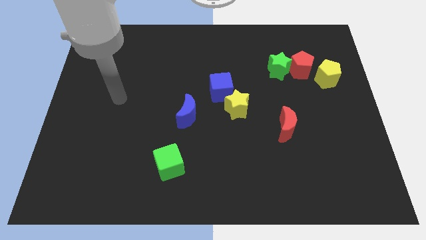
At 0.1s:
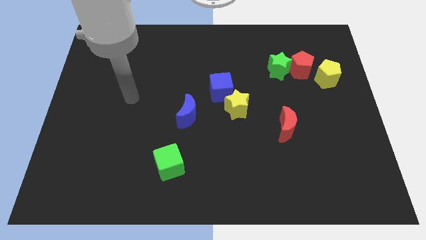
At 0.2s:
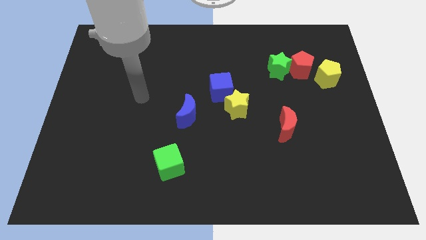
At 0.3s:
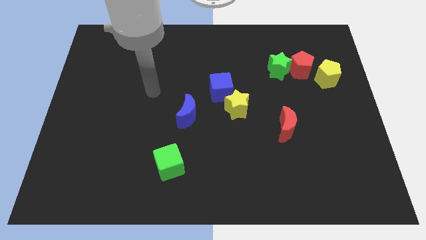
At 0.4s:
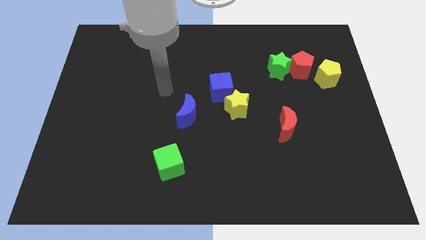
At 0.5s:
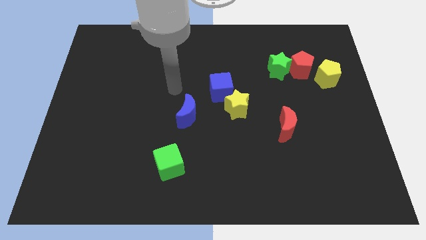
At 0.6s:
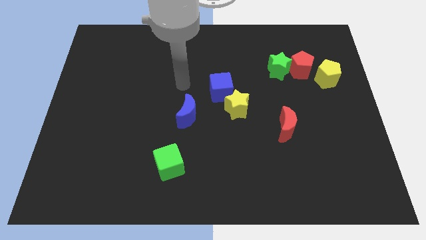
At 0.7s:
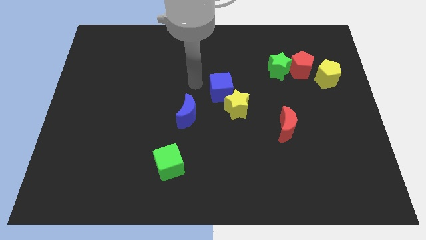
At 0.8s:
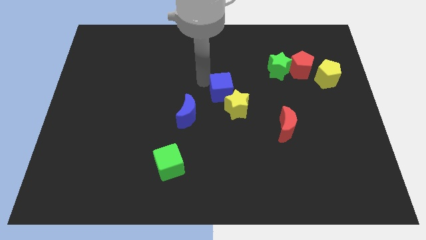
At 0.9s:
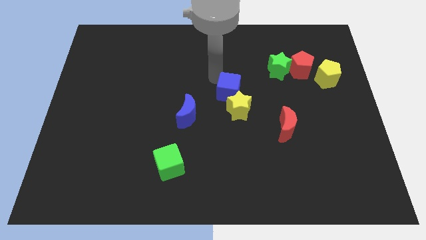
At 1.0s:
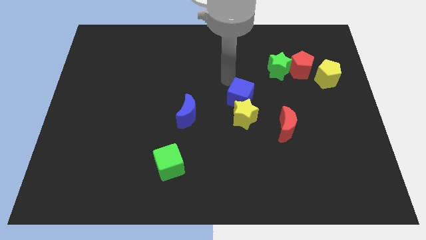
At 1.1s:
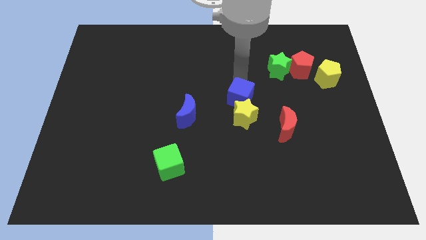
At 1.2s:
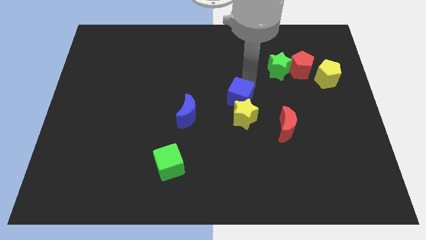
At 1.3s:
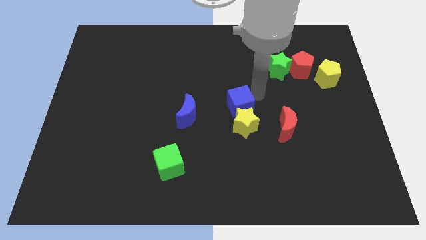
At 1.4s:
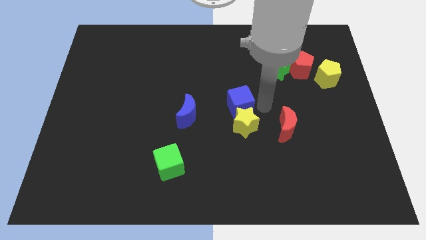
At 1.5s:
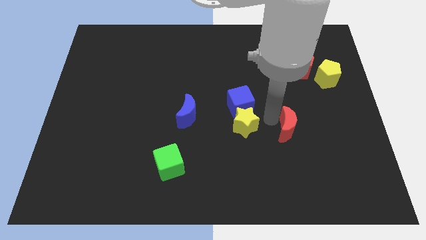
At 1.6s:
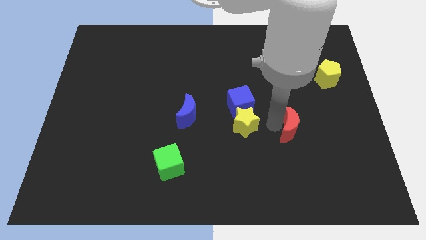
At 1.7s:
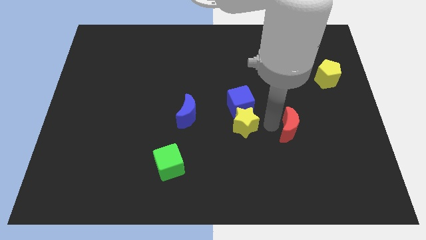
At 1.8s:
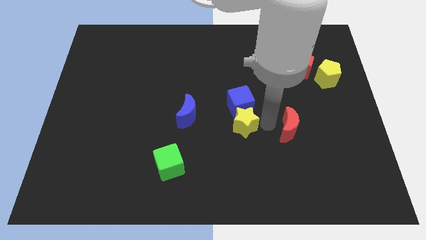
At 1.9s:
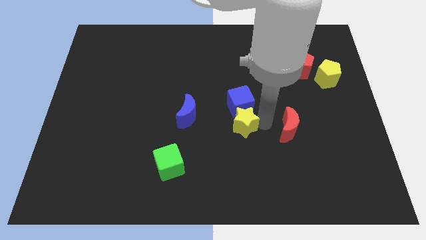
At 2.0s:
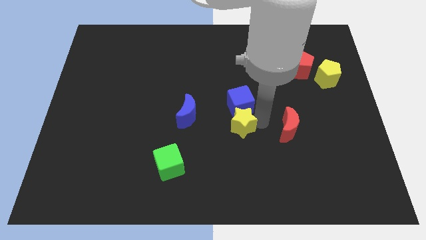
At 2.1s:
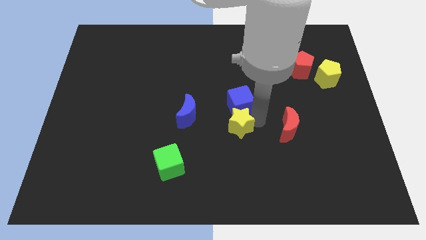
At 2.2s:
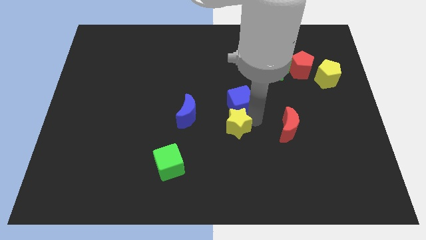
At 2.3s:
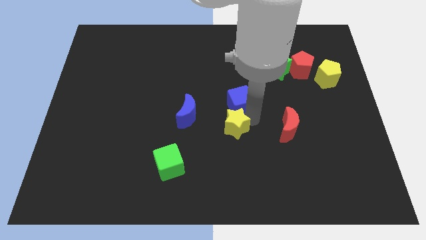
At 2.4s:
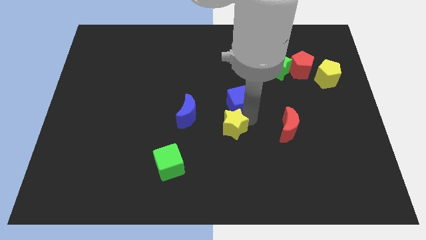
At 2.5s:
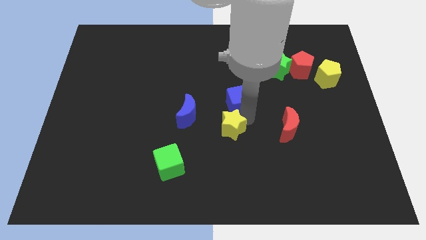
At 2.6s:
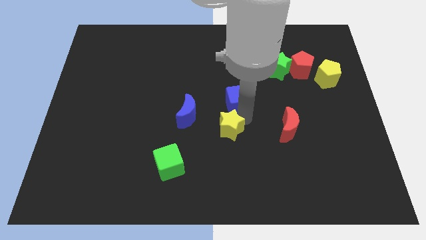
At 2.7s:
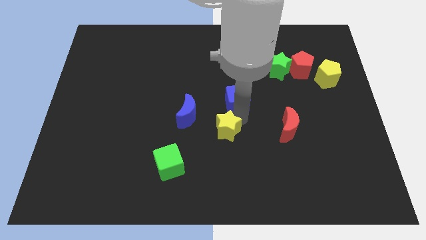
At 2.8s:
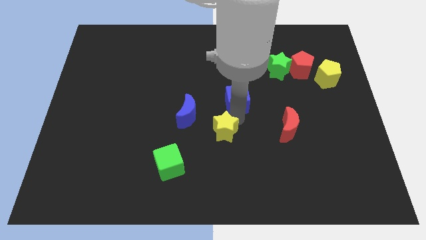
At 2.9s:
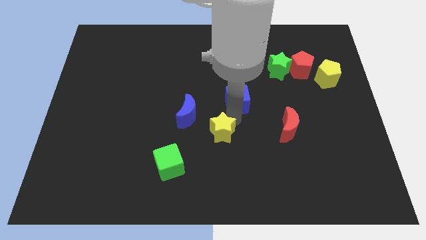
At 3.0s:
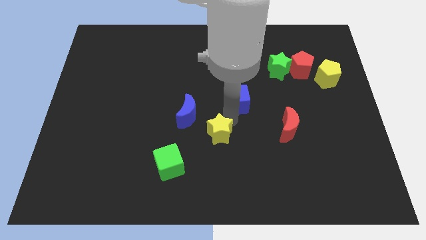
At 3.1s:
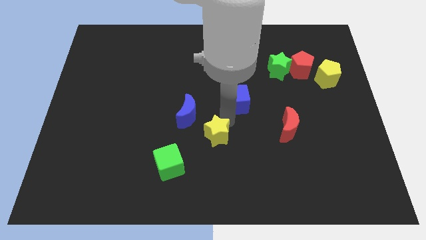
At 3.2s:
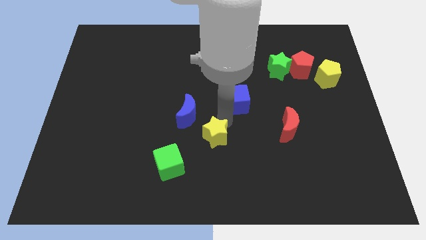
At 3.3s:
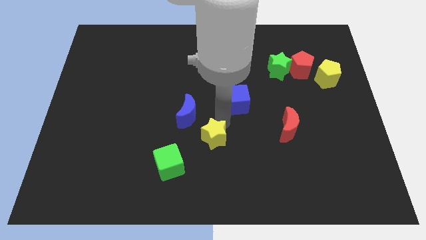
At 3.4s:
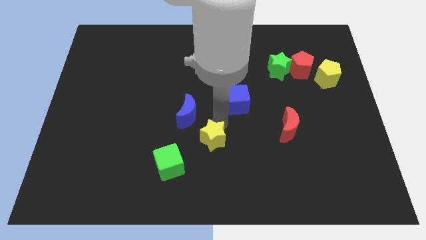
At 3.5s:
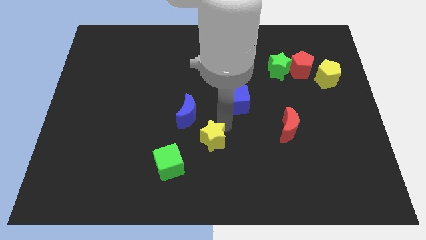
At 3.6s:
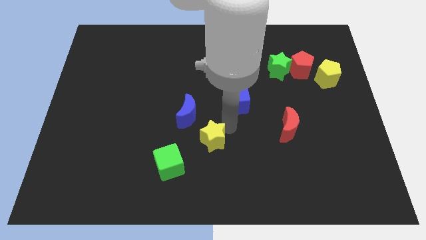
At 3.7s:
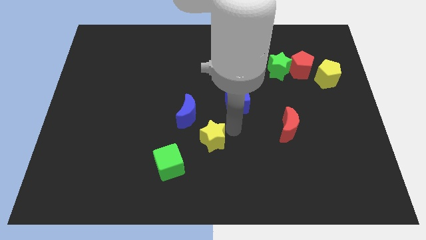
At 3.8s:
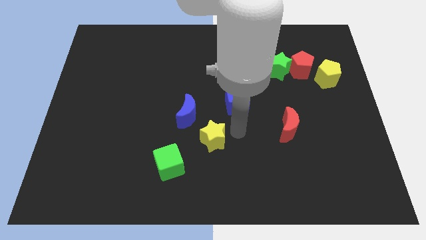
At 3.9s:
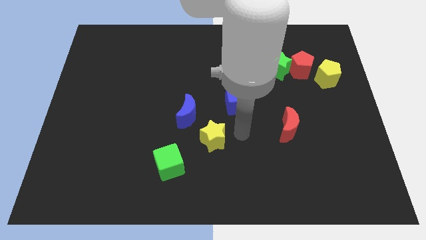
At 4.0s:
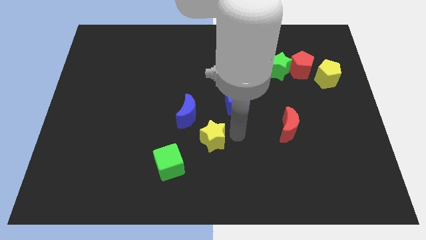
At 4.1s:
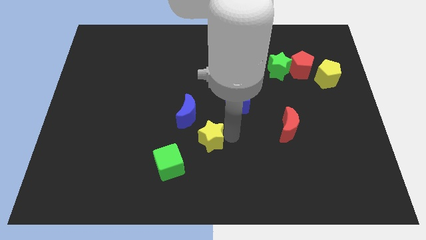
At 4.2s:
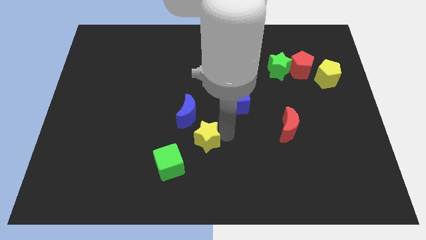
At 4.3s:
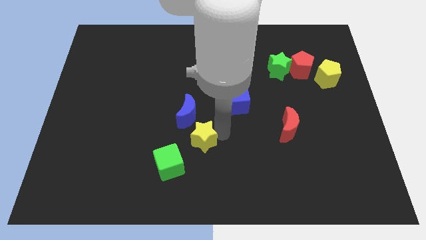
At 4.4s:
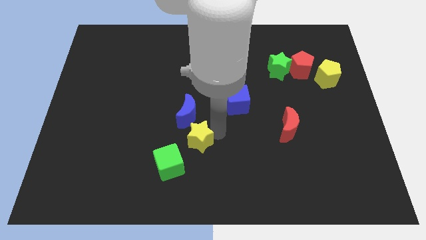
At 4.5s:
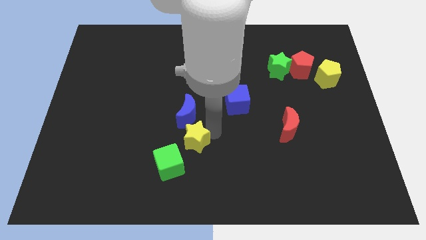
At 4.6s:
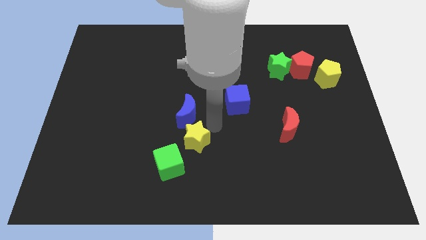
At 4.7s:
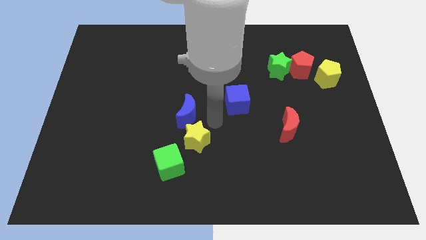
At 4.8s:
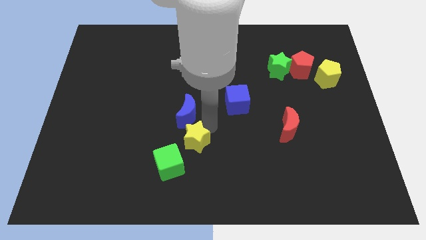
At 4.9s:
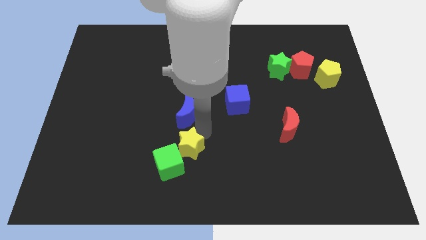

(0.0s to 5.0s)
move the yellow star to the green cube

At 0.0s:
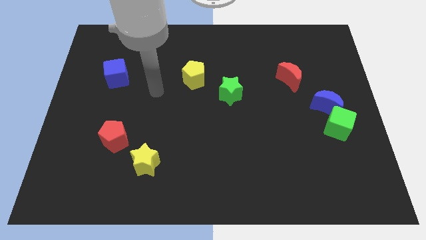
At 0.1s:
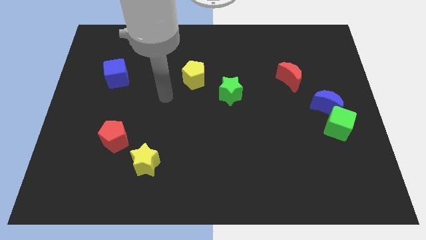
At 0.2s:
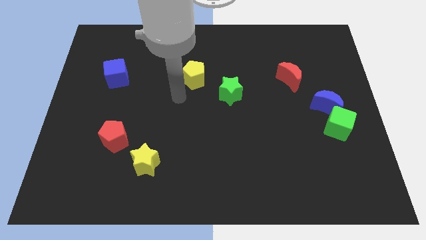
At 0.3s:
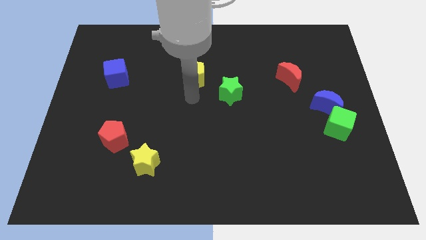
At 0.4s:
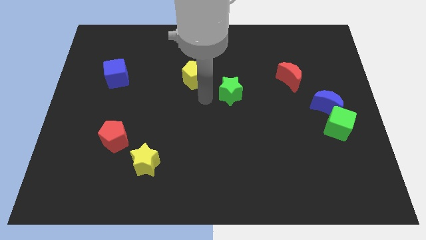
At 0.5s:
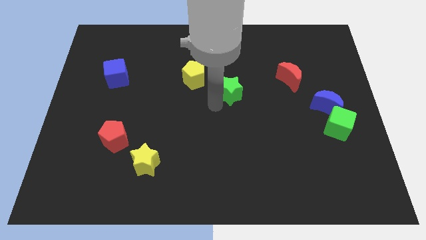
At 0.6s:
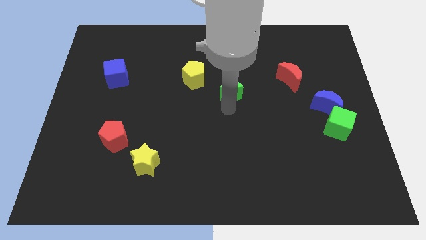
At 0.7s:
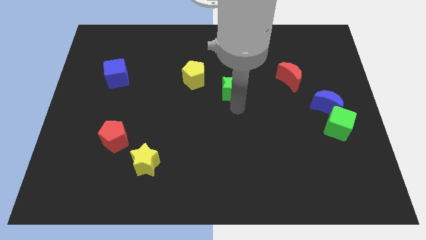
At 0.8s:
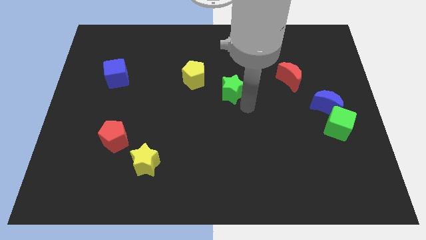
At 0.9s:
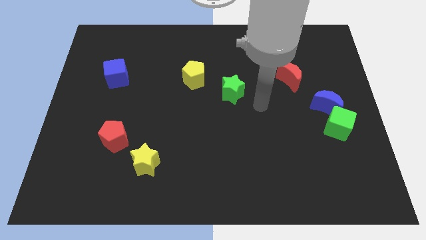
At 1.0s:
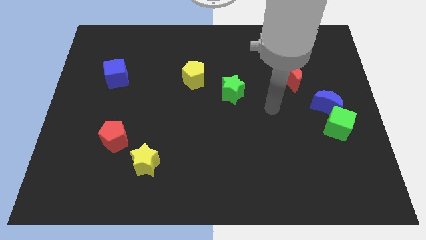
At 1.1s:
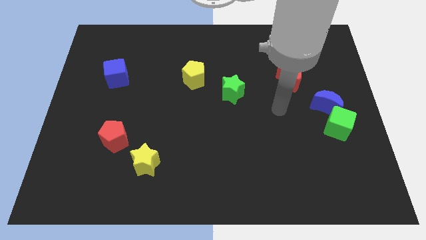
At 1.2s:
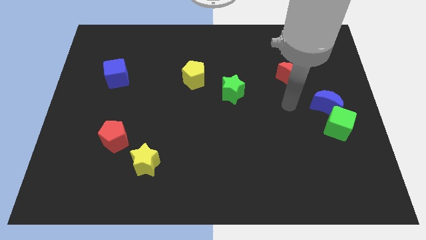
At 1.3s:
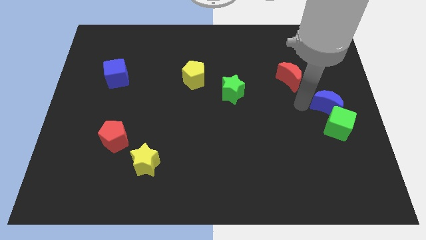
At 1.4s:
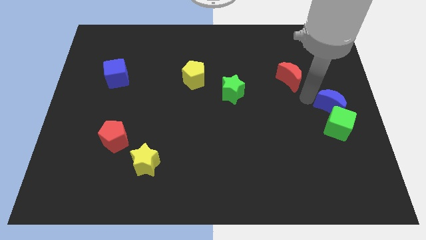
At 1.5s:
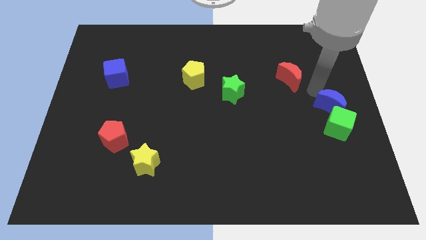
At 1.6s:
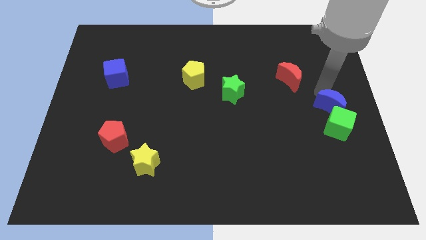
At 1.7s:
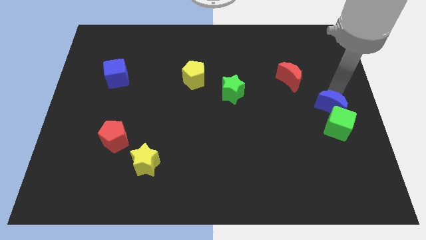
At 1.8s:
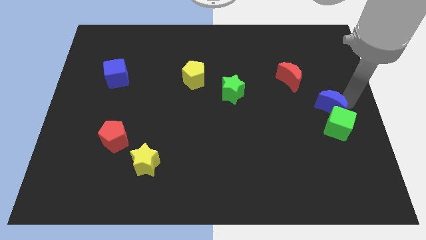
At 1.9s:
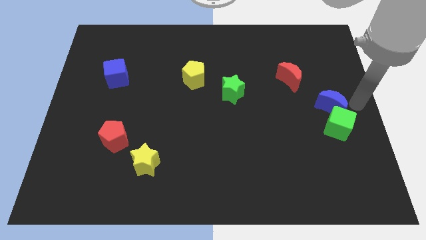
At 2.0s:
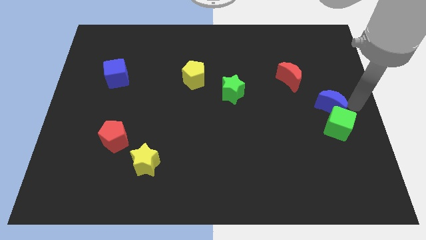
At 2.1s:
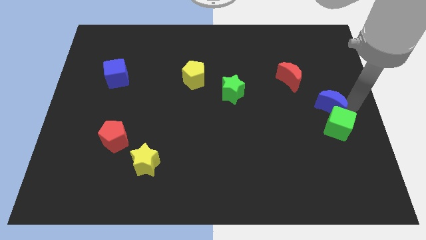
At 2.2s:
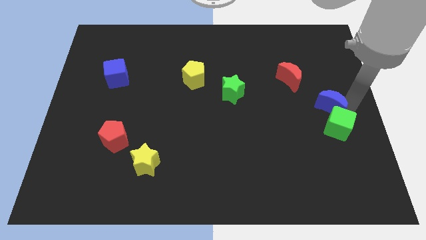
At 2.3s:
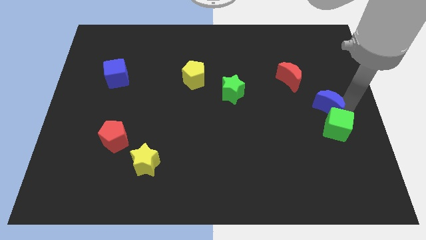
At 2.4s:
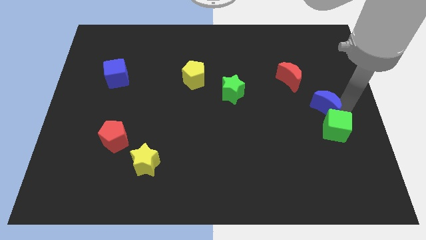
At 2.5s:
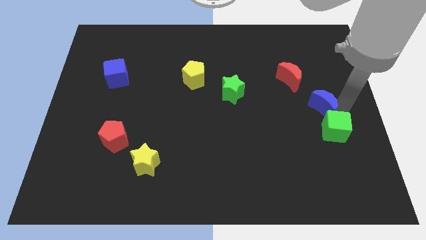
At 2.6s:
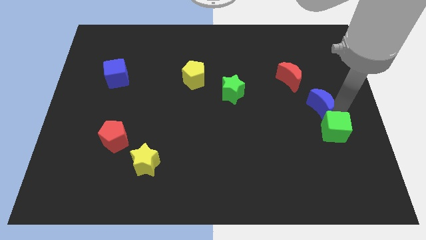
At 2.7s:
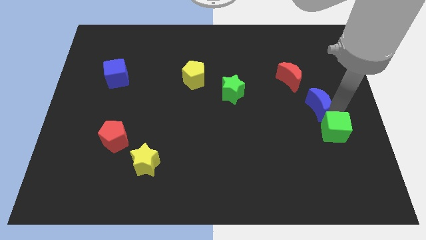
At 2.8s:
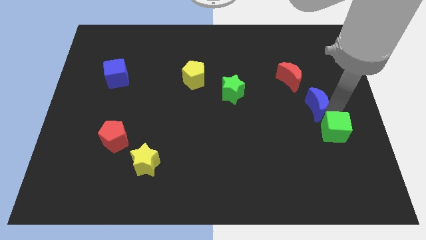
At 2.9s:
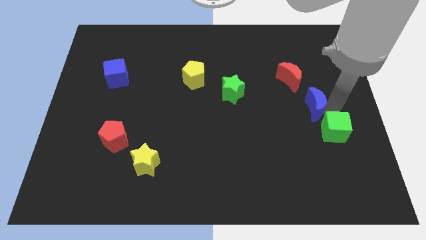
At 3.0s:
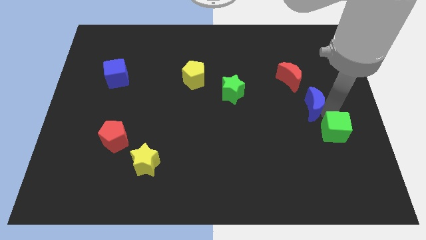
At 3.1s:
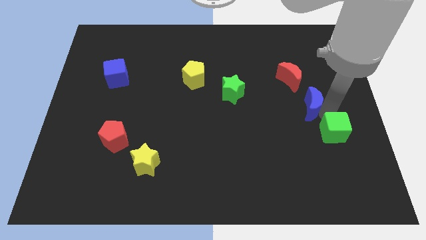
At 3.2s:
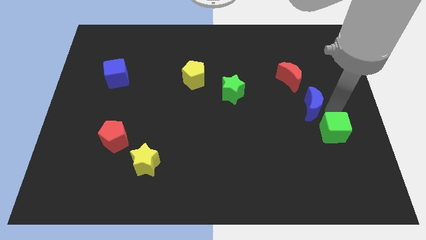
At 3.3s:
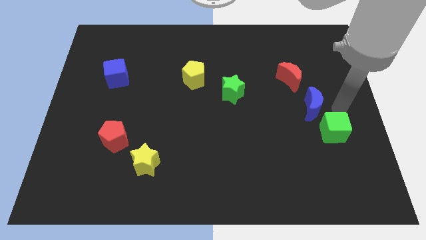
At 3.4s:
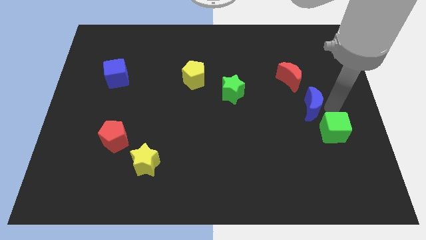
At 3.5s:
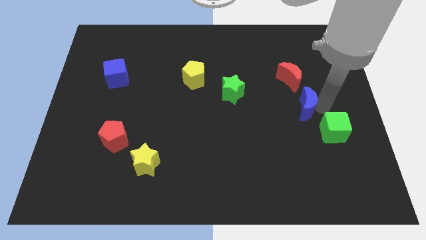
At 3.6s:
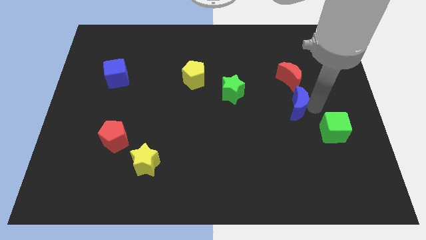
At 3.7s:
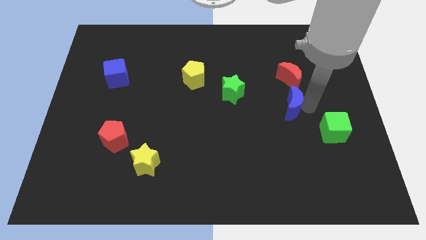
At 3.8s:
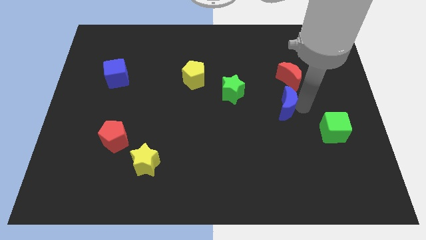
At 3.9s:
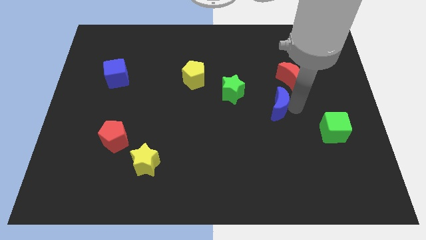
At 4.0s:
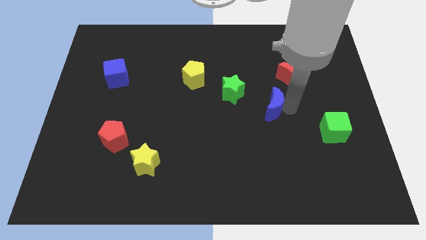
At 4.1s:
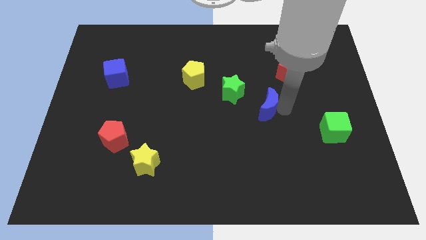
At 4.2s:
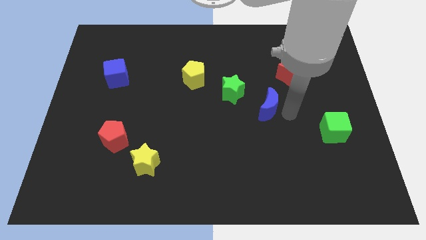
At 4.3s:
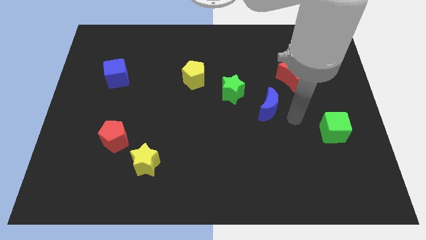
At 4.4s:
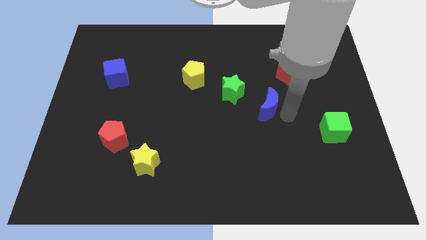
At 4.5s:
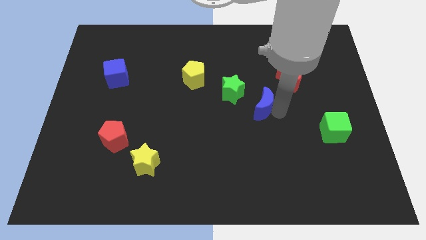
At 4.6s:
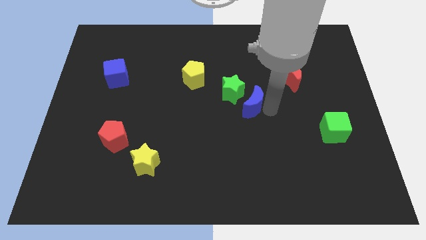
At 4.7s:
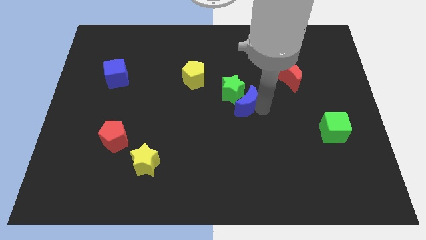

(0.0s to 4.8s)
move the blue moon towards the green star
